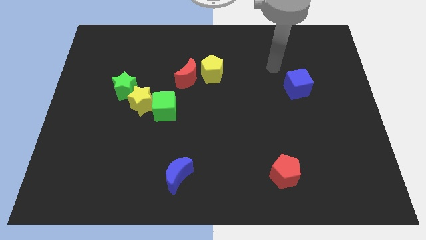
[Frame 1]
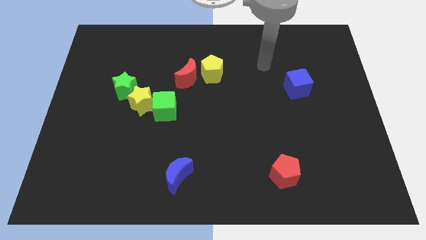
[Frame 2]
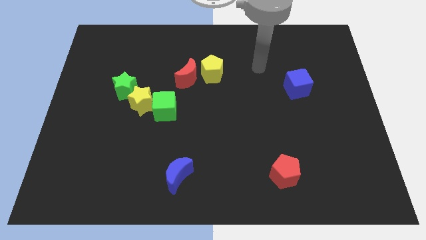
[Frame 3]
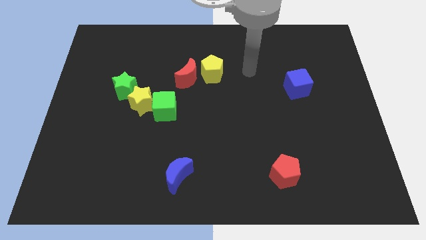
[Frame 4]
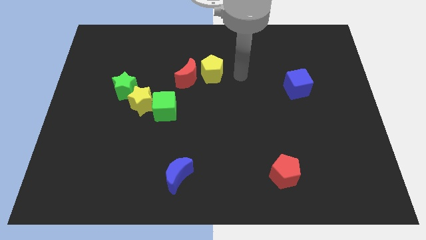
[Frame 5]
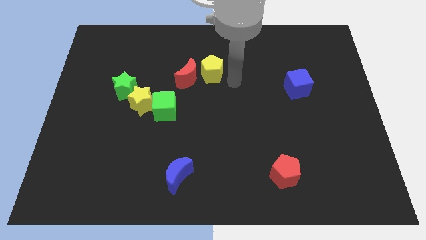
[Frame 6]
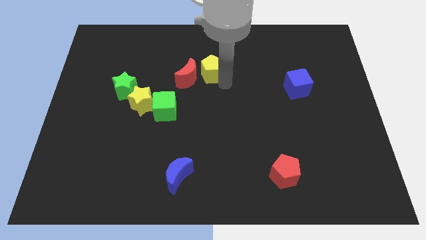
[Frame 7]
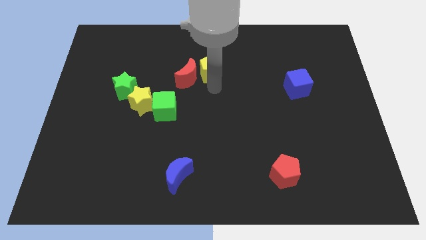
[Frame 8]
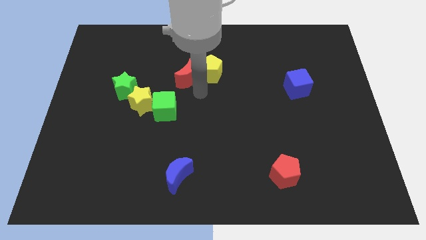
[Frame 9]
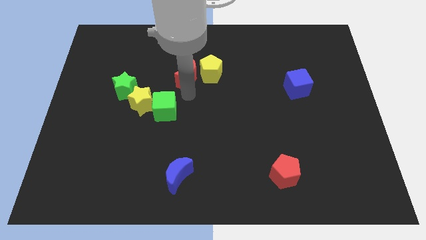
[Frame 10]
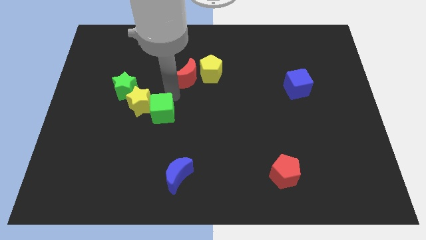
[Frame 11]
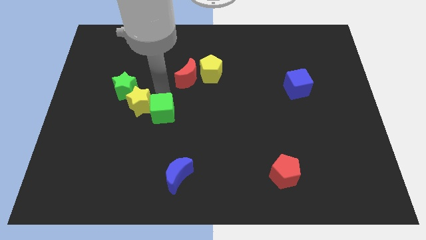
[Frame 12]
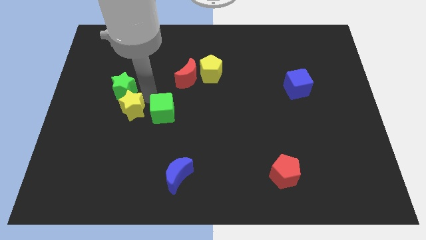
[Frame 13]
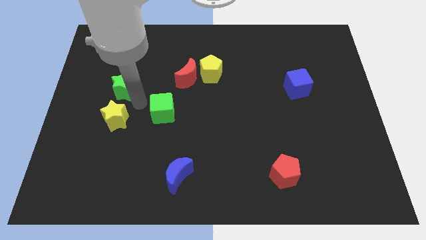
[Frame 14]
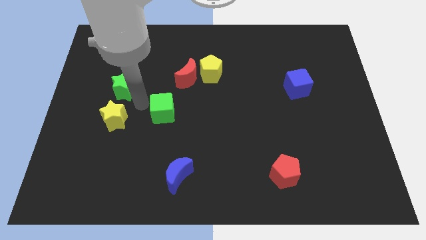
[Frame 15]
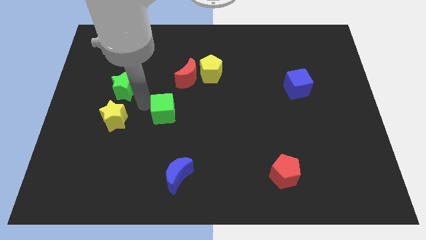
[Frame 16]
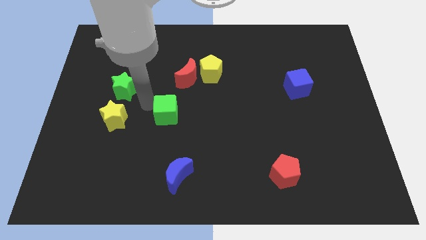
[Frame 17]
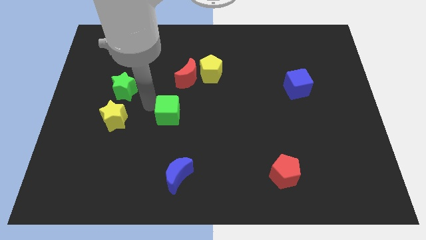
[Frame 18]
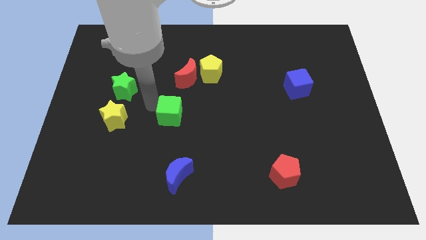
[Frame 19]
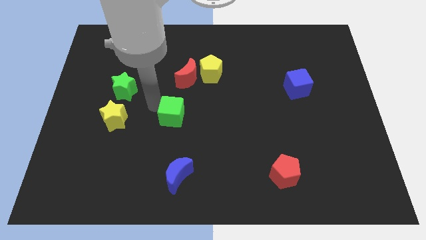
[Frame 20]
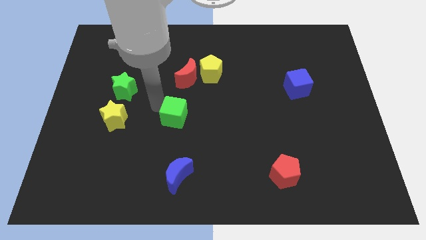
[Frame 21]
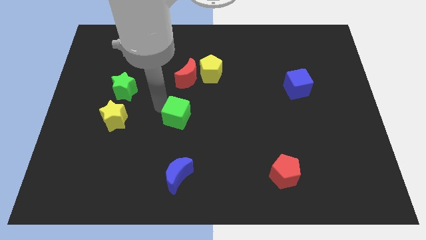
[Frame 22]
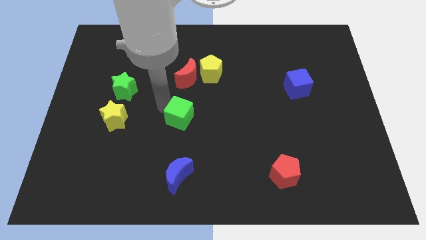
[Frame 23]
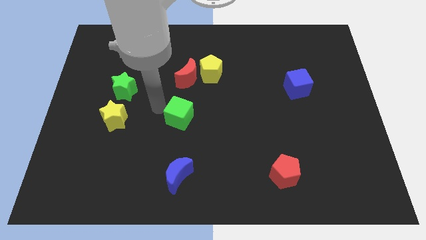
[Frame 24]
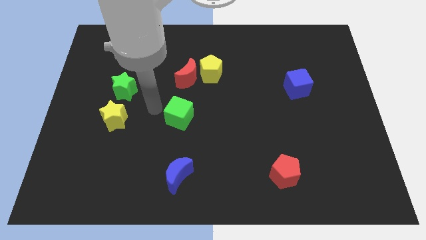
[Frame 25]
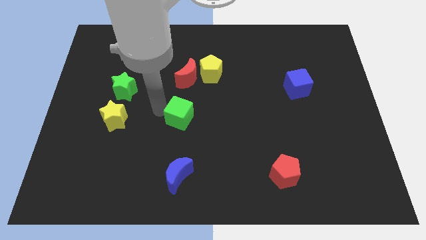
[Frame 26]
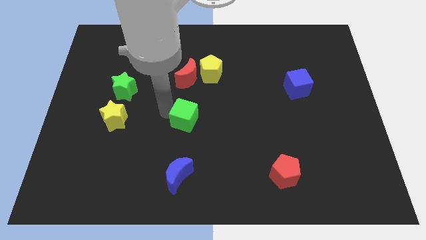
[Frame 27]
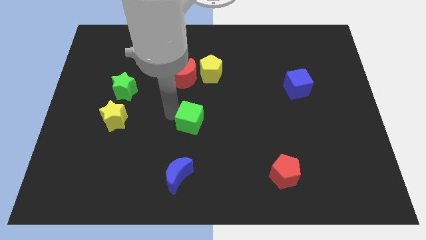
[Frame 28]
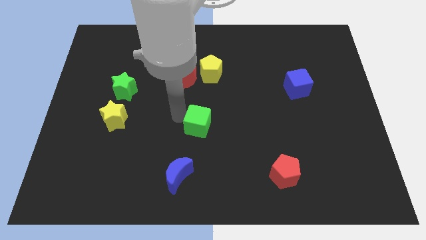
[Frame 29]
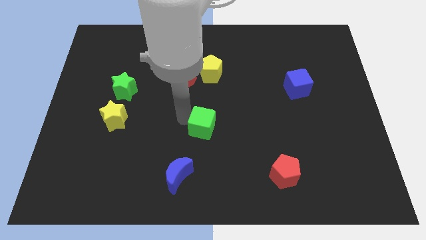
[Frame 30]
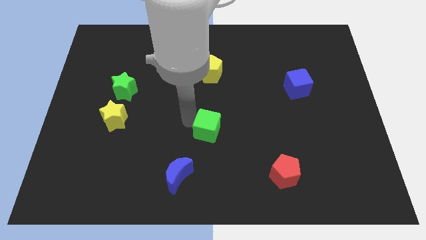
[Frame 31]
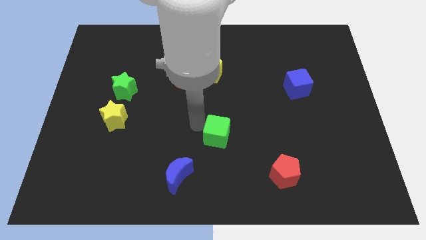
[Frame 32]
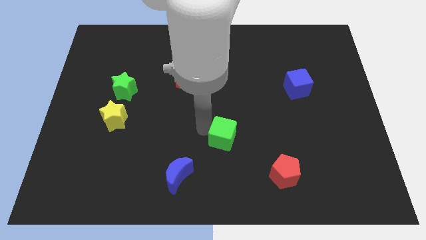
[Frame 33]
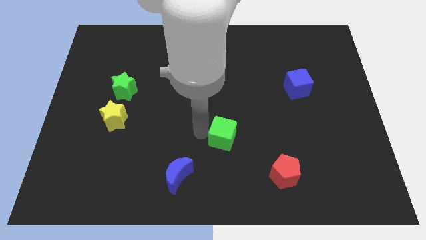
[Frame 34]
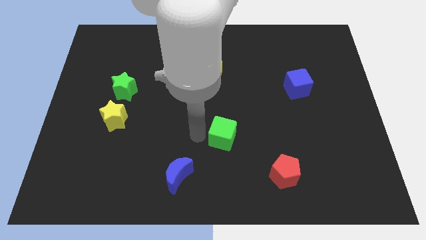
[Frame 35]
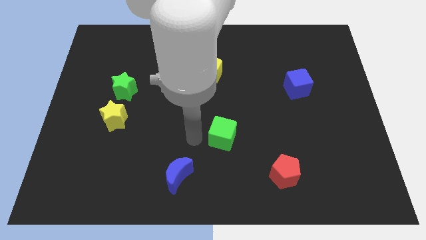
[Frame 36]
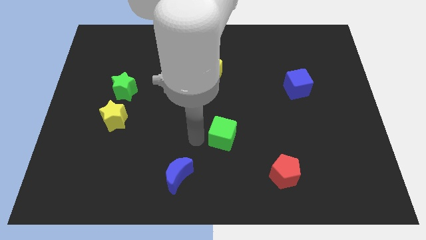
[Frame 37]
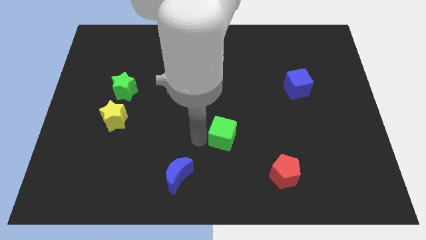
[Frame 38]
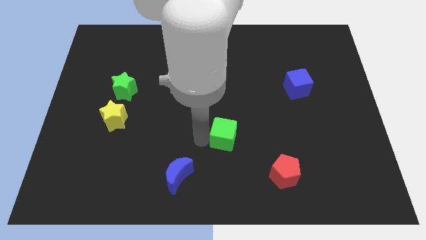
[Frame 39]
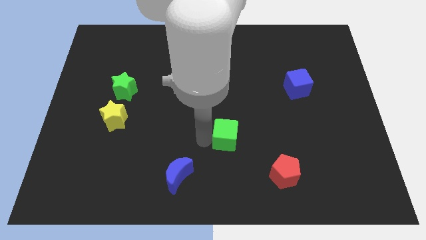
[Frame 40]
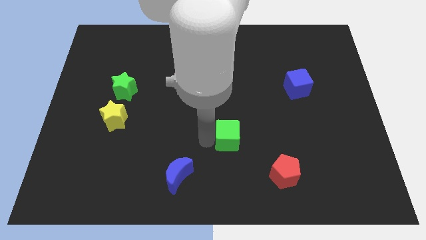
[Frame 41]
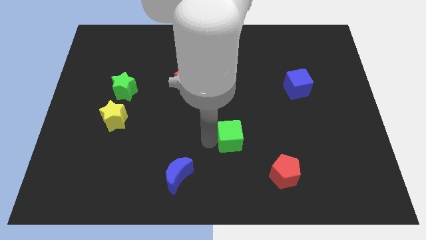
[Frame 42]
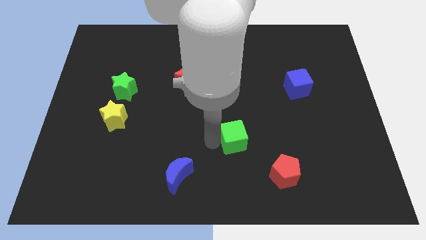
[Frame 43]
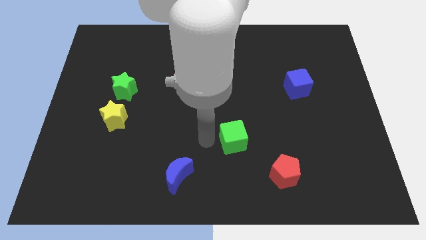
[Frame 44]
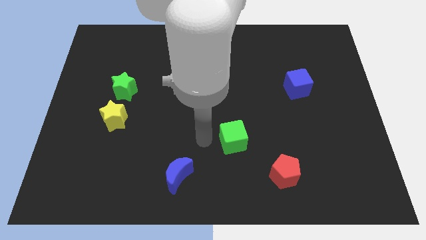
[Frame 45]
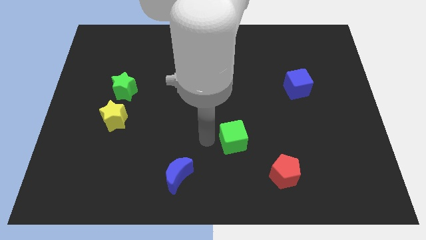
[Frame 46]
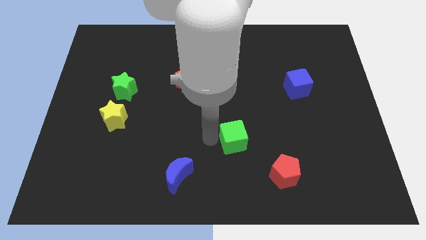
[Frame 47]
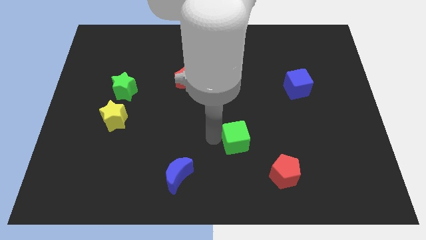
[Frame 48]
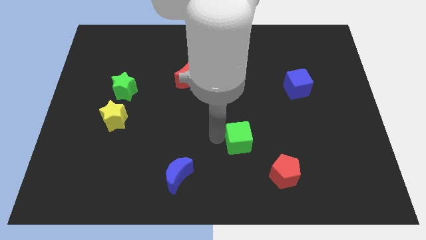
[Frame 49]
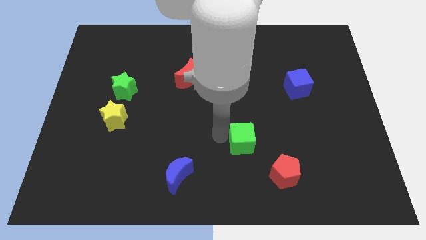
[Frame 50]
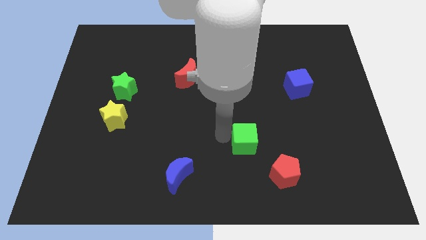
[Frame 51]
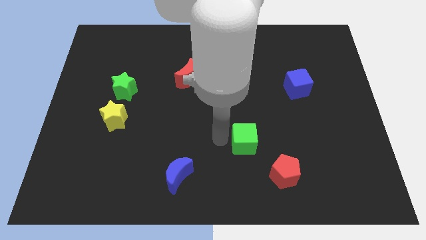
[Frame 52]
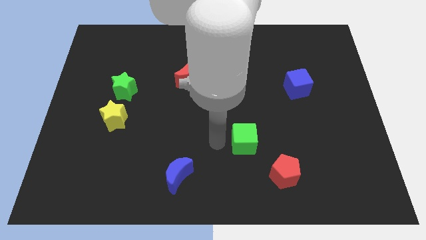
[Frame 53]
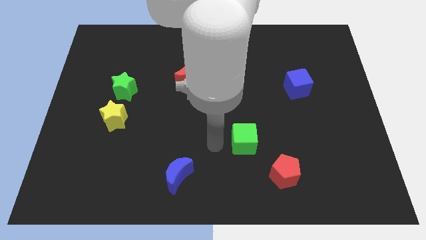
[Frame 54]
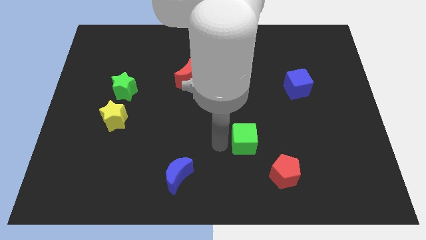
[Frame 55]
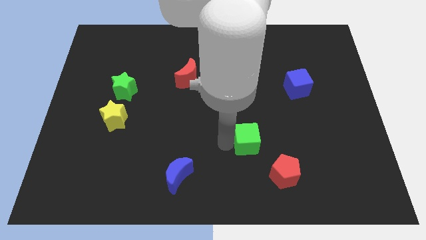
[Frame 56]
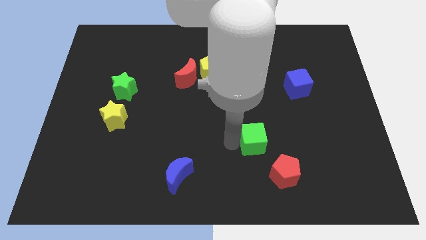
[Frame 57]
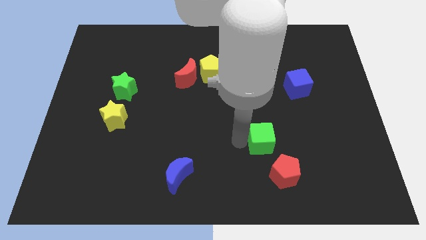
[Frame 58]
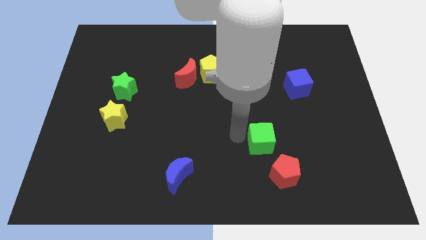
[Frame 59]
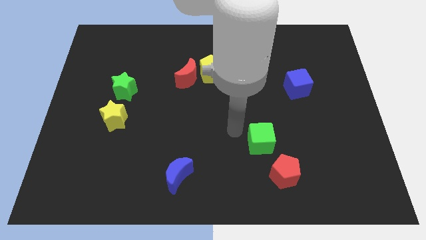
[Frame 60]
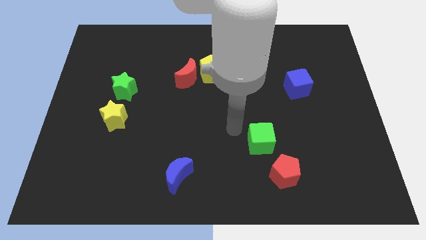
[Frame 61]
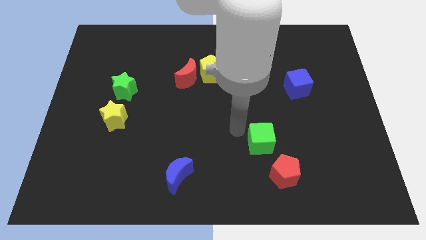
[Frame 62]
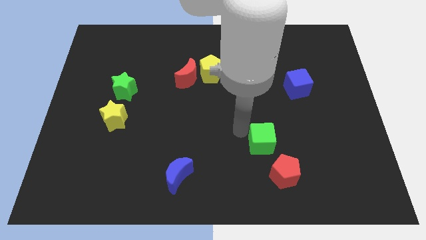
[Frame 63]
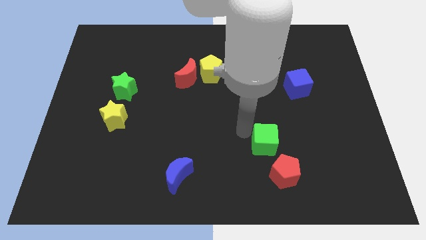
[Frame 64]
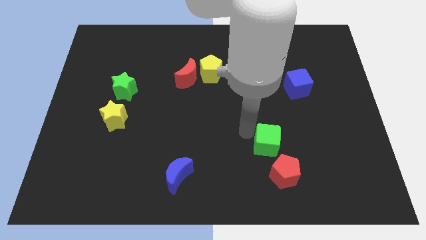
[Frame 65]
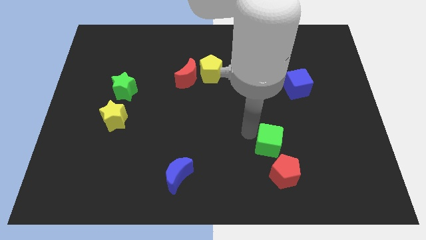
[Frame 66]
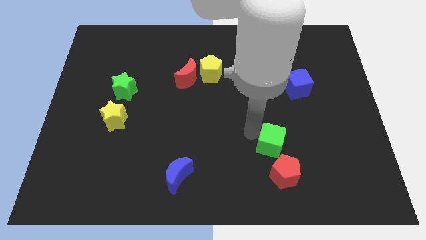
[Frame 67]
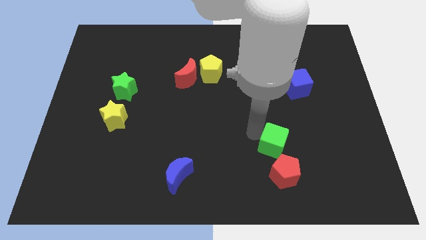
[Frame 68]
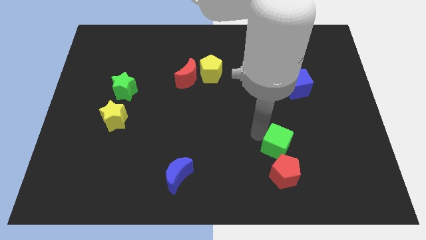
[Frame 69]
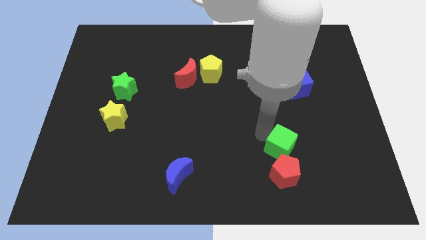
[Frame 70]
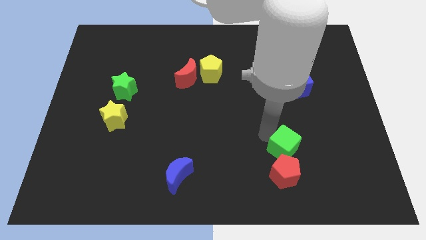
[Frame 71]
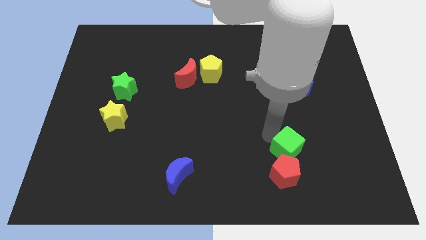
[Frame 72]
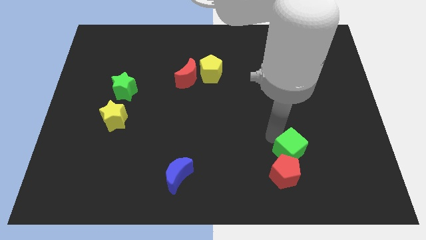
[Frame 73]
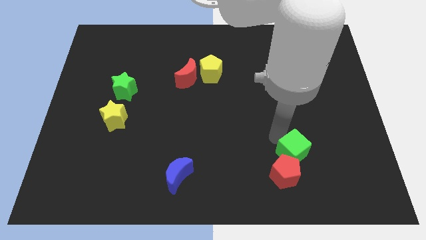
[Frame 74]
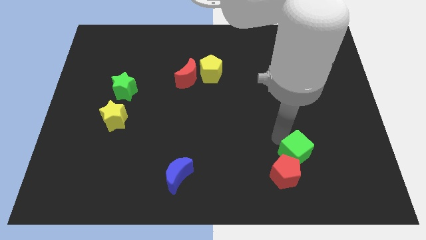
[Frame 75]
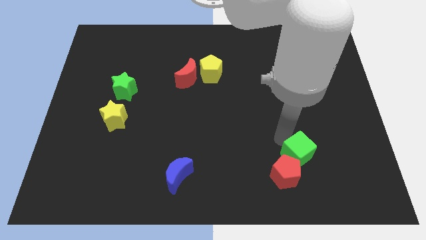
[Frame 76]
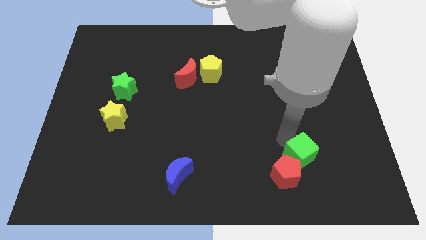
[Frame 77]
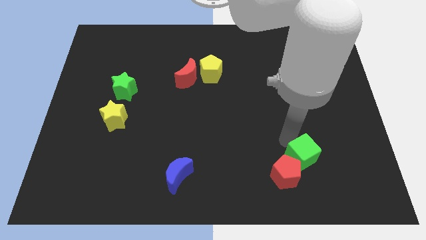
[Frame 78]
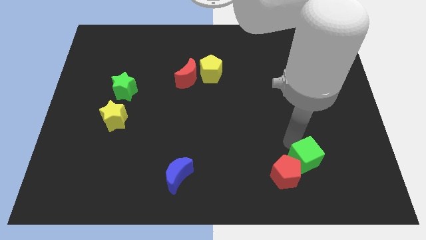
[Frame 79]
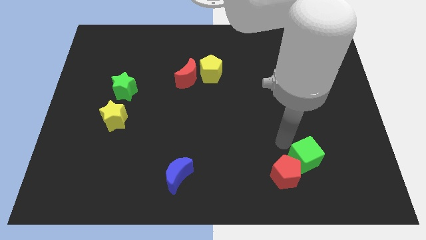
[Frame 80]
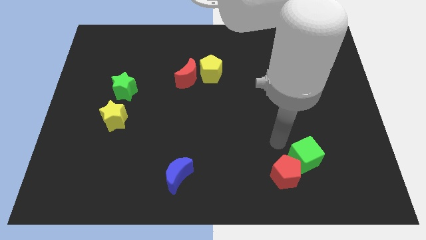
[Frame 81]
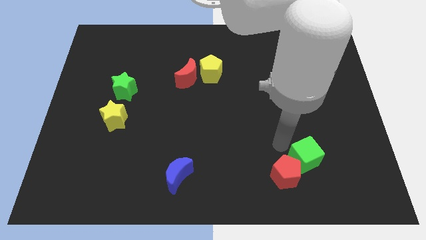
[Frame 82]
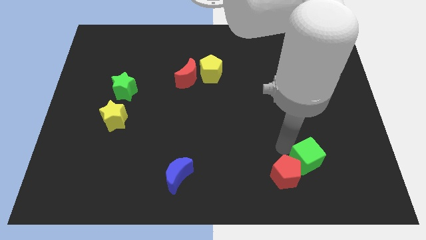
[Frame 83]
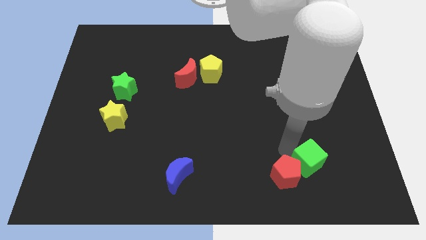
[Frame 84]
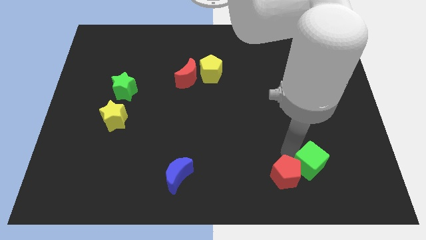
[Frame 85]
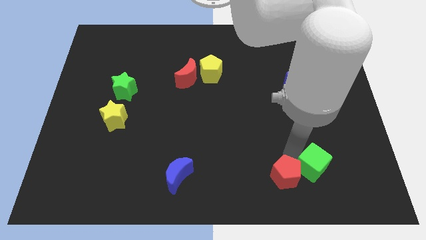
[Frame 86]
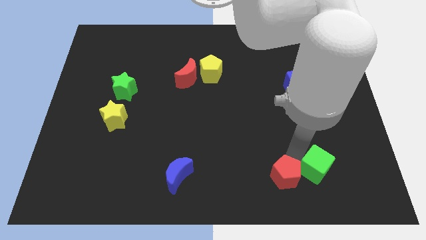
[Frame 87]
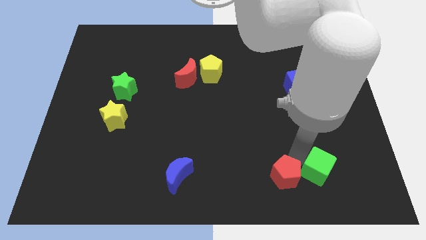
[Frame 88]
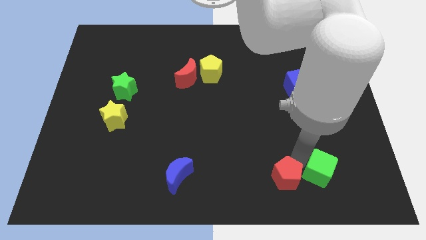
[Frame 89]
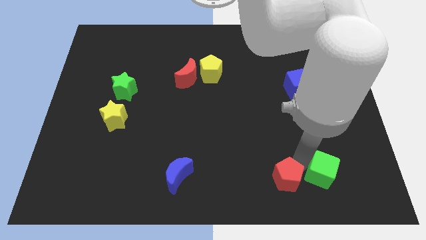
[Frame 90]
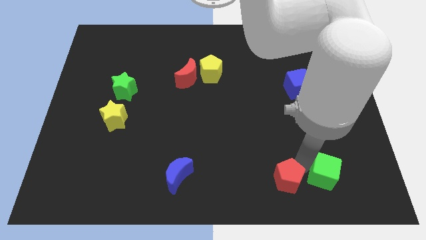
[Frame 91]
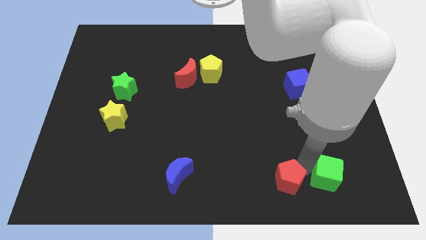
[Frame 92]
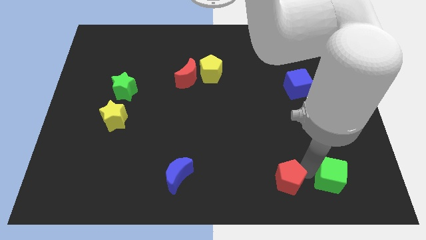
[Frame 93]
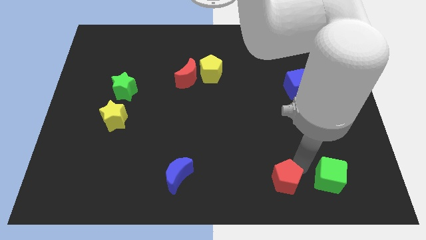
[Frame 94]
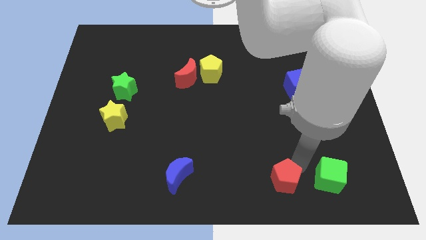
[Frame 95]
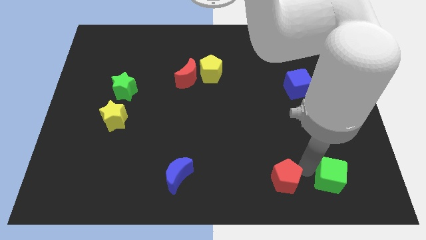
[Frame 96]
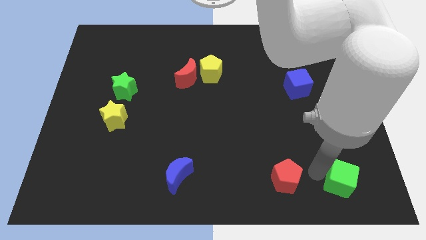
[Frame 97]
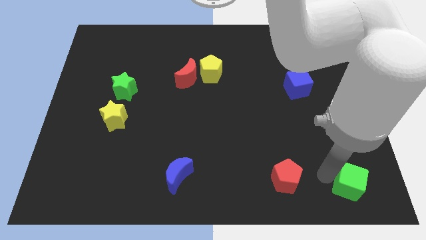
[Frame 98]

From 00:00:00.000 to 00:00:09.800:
slide the green cube to the bottom right corner
